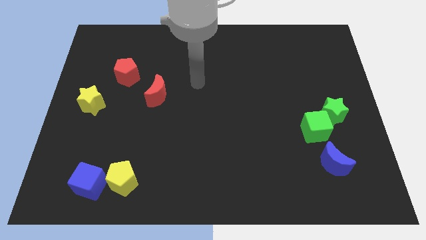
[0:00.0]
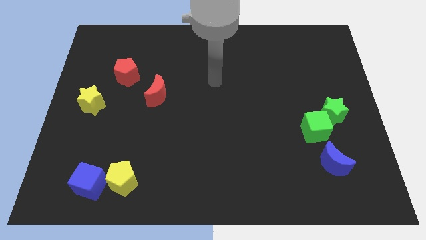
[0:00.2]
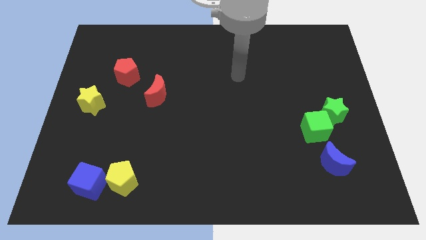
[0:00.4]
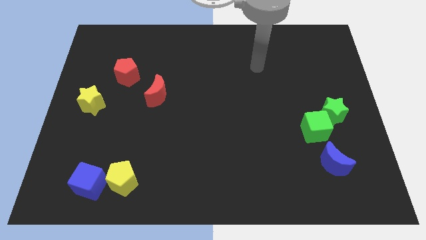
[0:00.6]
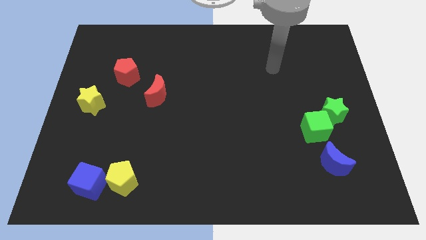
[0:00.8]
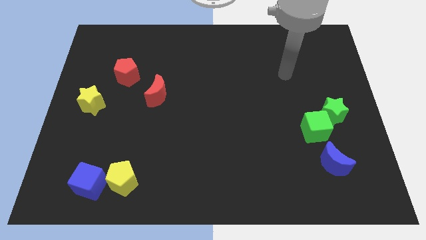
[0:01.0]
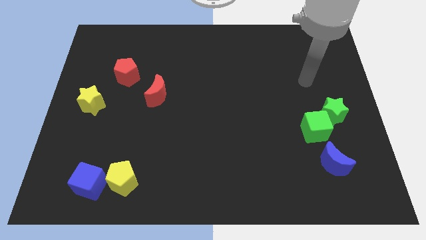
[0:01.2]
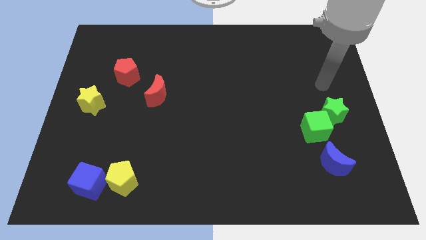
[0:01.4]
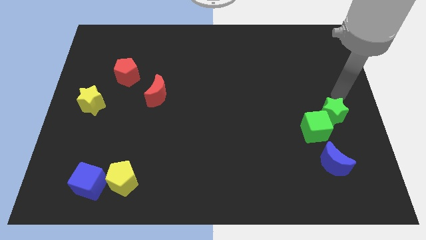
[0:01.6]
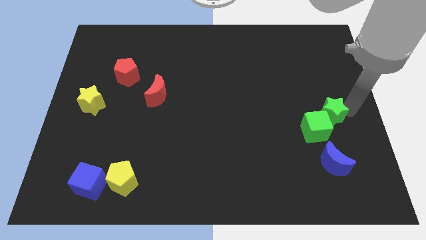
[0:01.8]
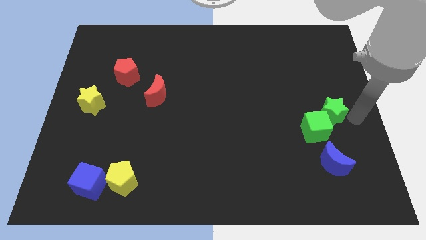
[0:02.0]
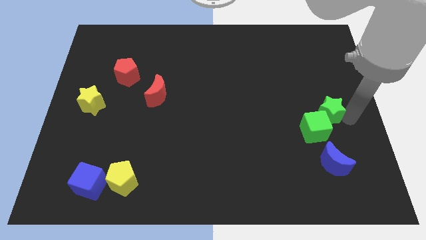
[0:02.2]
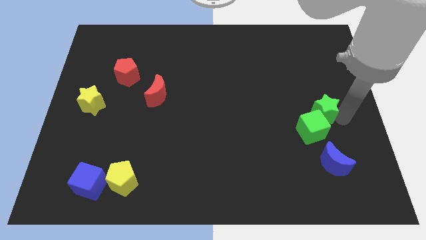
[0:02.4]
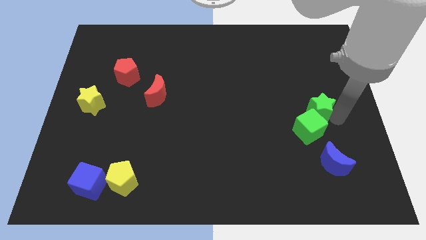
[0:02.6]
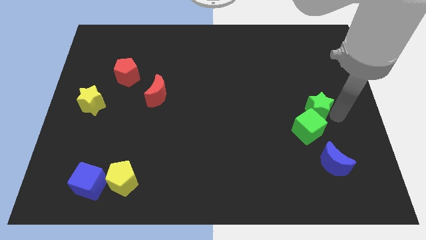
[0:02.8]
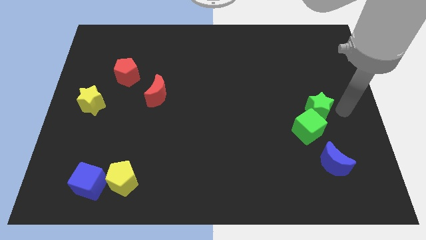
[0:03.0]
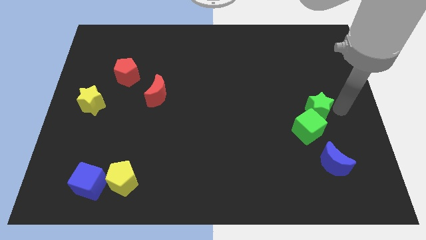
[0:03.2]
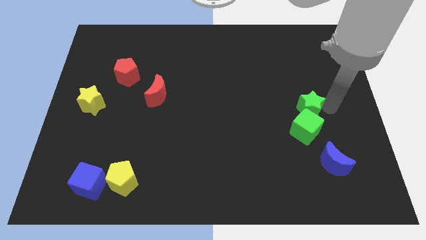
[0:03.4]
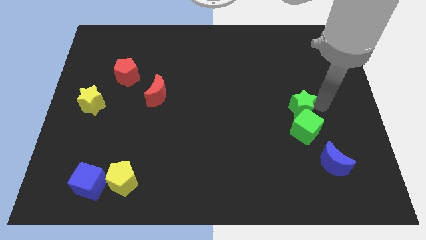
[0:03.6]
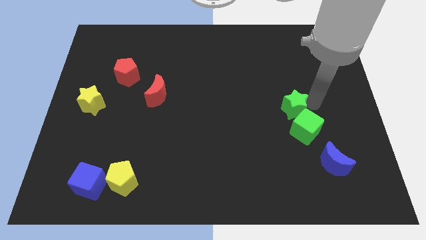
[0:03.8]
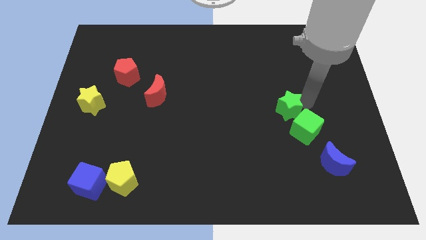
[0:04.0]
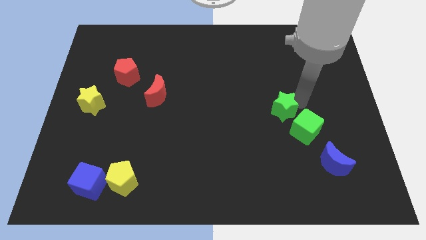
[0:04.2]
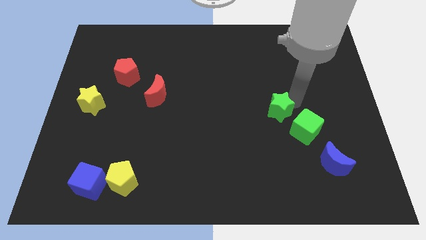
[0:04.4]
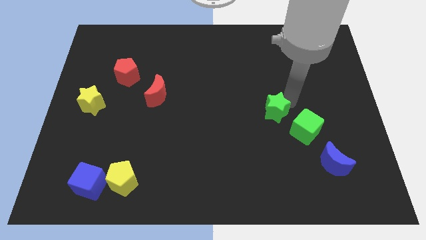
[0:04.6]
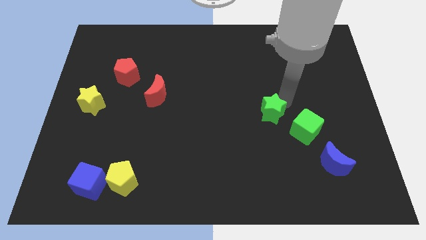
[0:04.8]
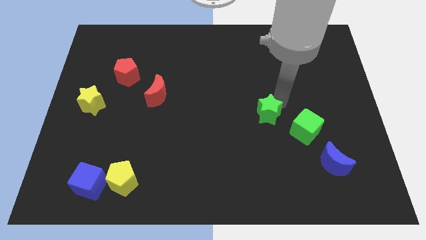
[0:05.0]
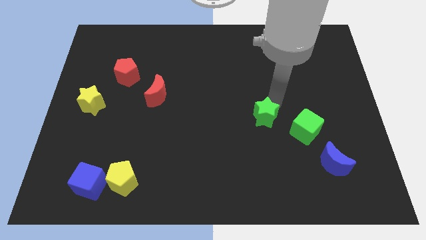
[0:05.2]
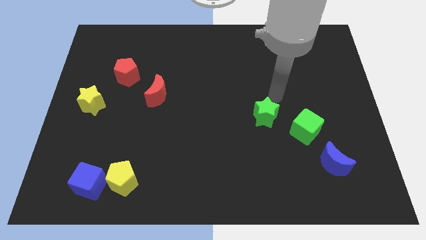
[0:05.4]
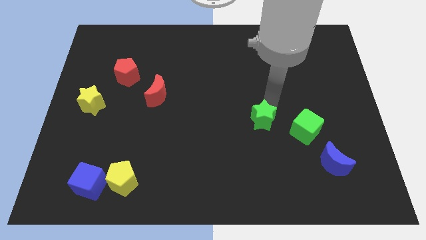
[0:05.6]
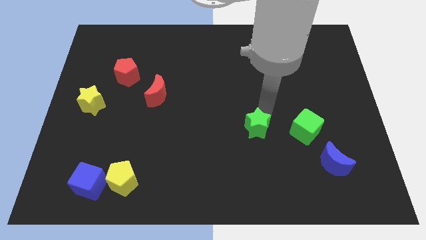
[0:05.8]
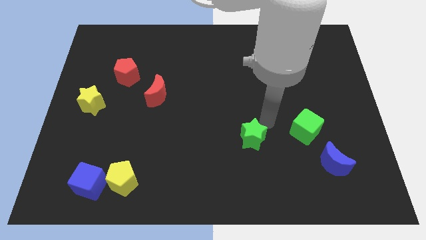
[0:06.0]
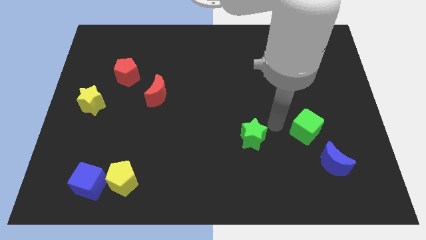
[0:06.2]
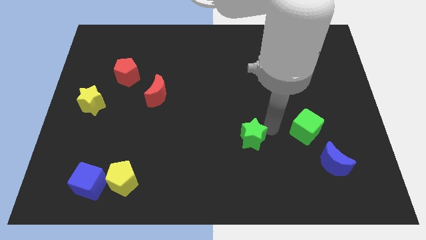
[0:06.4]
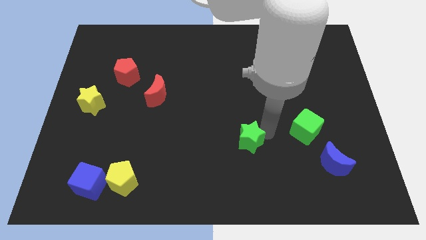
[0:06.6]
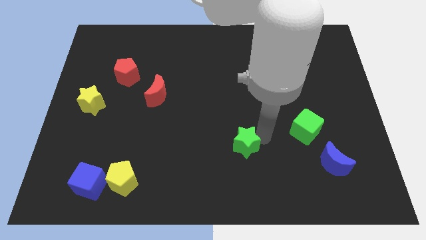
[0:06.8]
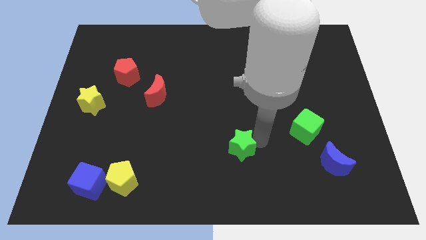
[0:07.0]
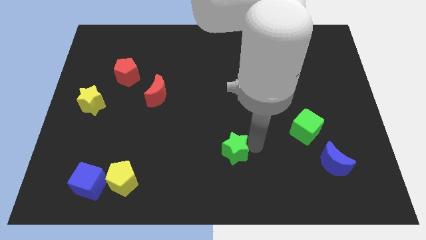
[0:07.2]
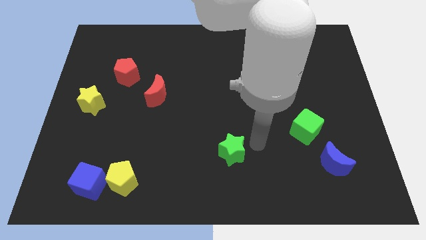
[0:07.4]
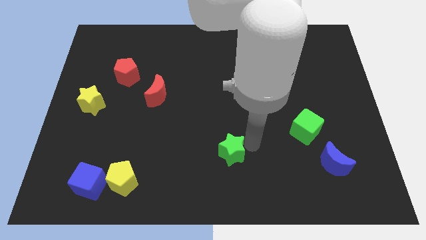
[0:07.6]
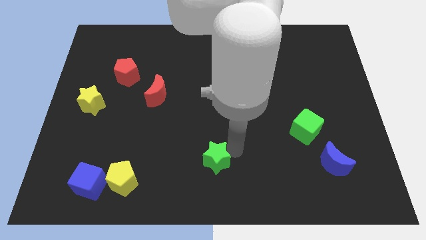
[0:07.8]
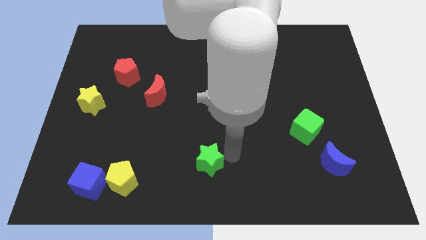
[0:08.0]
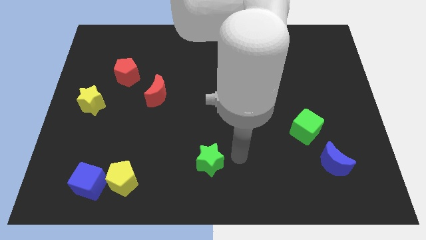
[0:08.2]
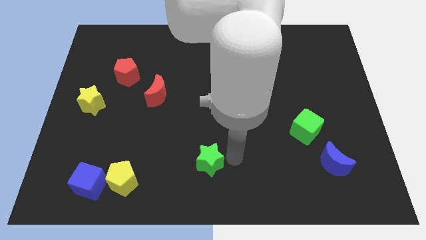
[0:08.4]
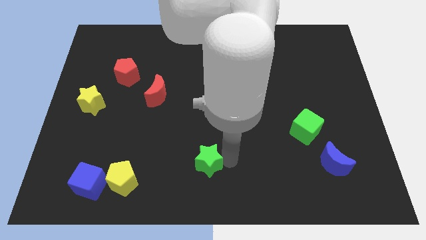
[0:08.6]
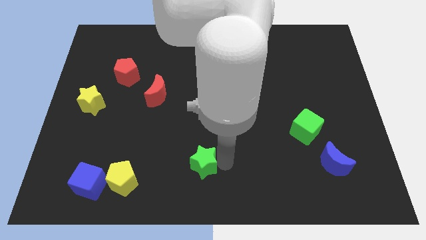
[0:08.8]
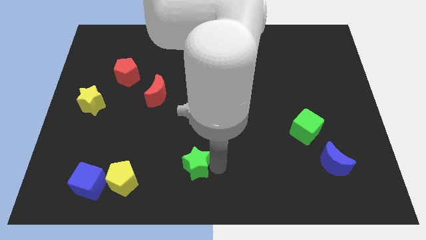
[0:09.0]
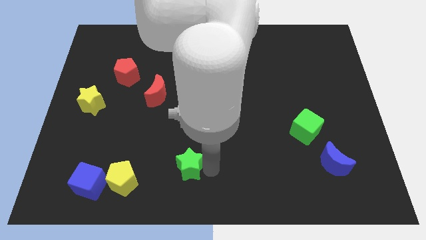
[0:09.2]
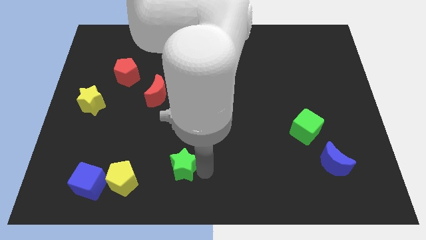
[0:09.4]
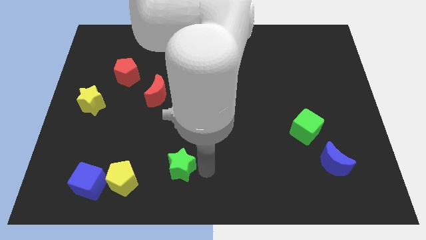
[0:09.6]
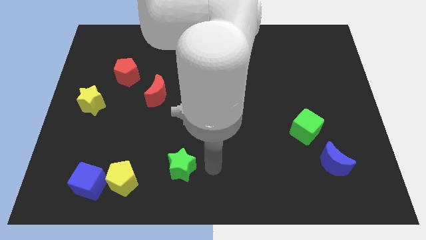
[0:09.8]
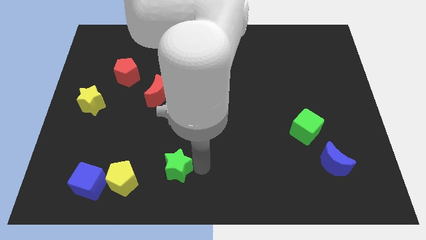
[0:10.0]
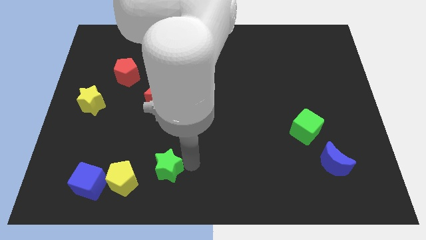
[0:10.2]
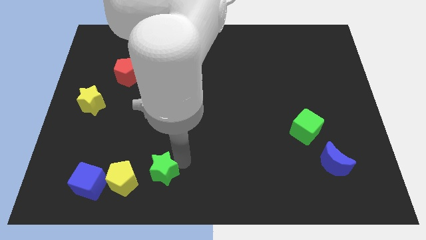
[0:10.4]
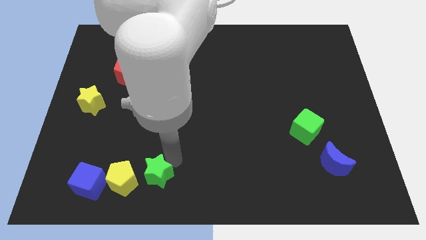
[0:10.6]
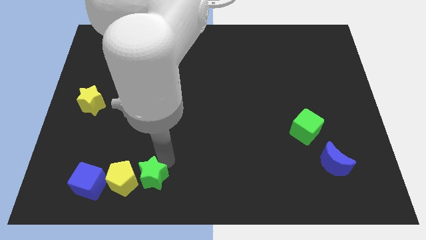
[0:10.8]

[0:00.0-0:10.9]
push the green star close to the yellow pentagon

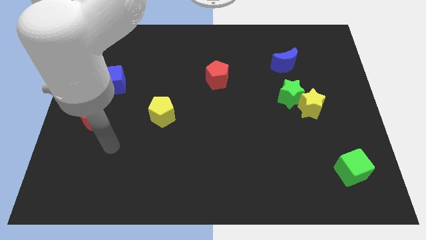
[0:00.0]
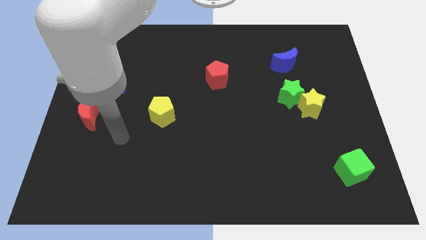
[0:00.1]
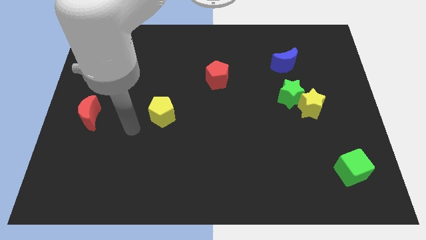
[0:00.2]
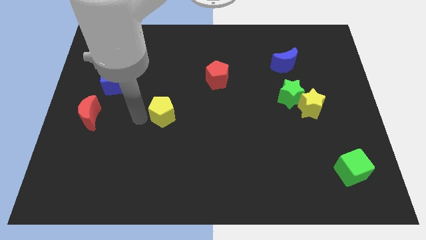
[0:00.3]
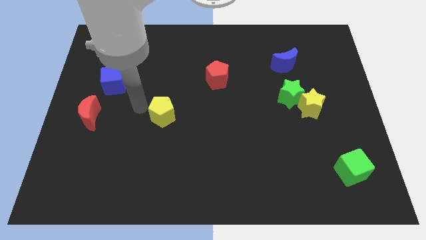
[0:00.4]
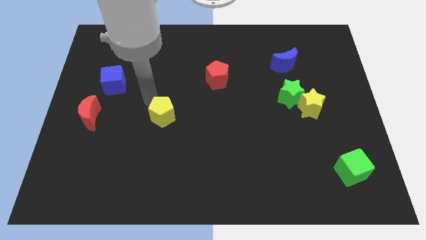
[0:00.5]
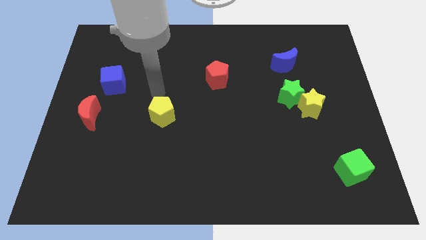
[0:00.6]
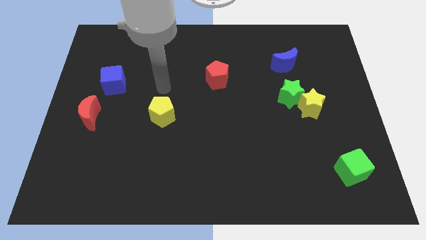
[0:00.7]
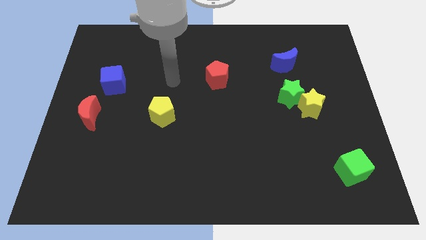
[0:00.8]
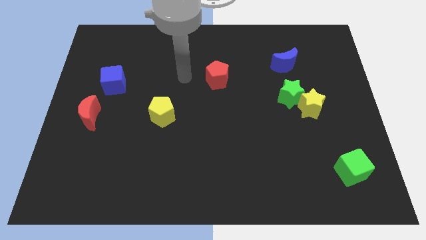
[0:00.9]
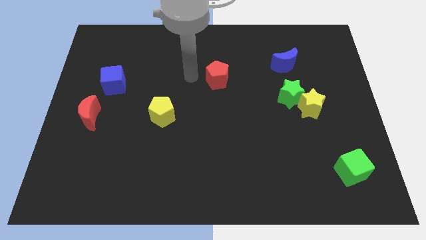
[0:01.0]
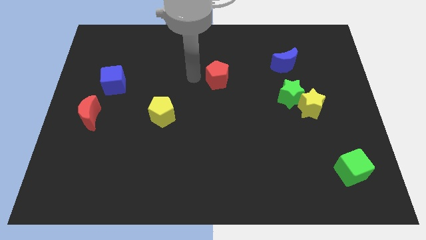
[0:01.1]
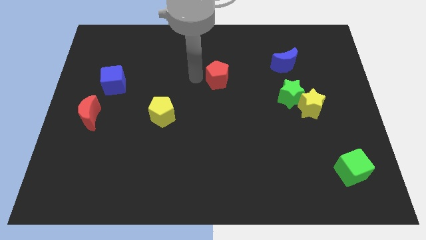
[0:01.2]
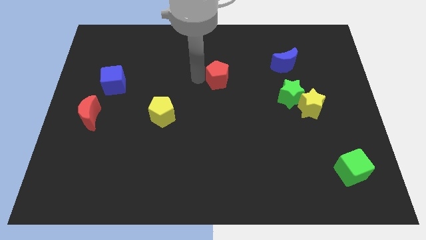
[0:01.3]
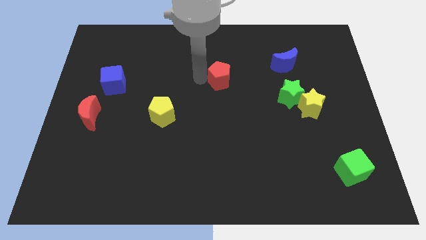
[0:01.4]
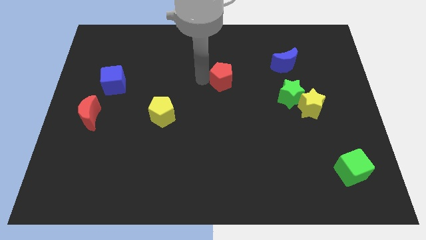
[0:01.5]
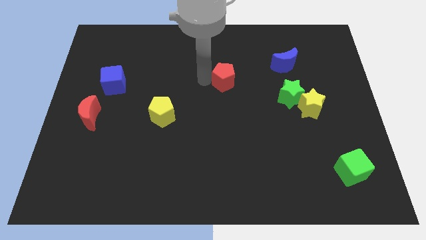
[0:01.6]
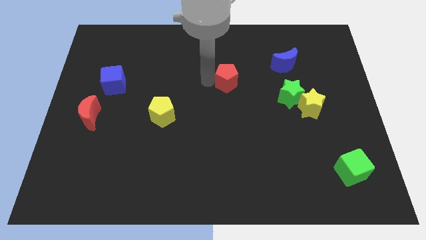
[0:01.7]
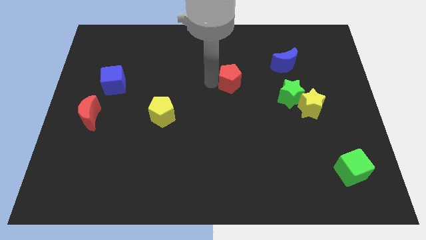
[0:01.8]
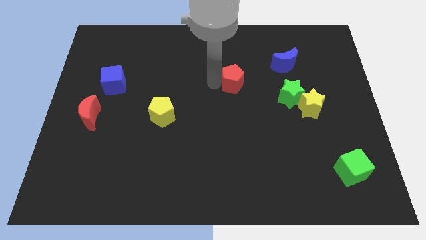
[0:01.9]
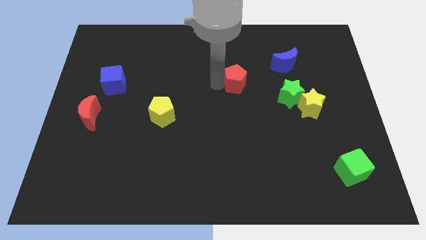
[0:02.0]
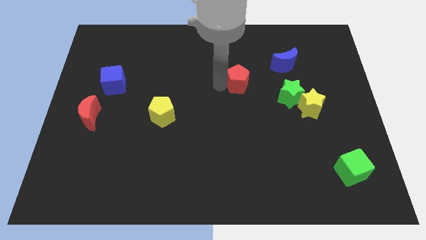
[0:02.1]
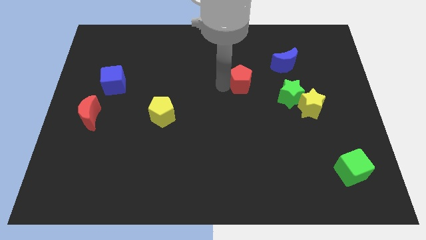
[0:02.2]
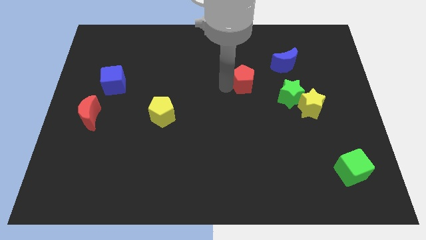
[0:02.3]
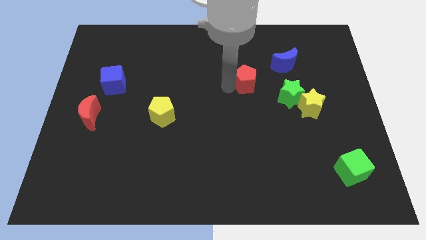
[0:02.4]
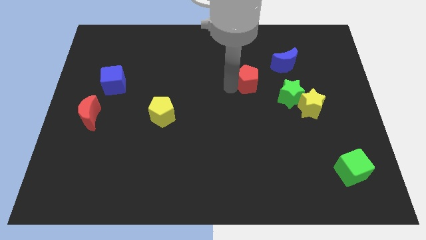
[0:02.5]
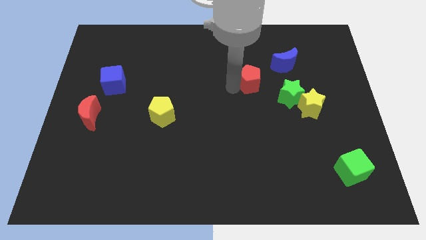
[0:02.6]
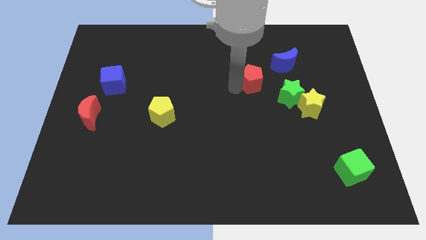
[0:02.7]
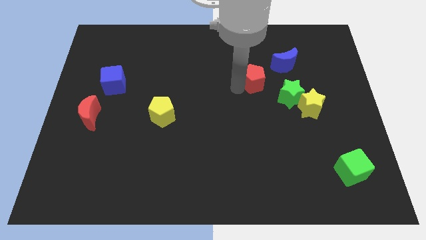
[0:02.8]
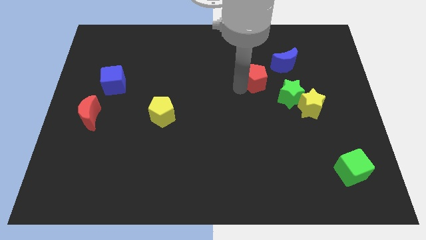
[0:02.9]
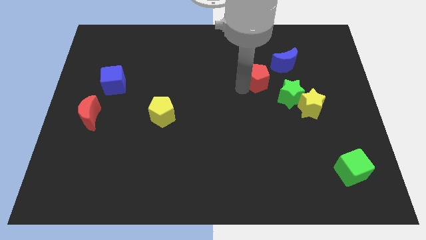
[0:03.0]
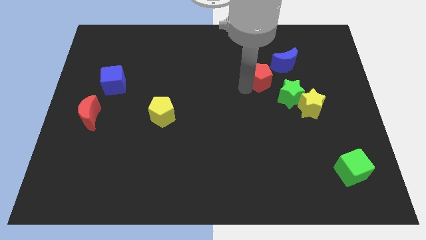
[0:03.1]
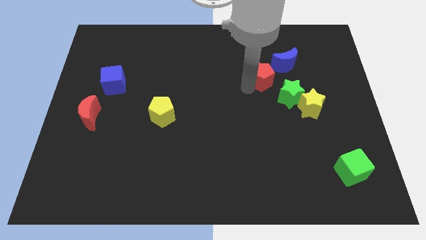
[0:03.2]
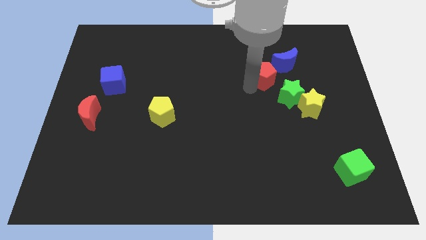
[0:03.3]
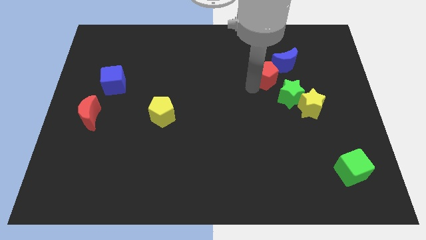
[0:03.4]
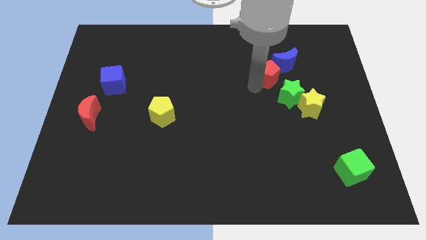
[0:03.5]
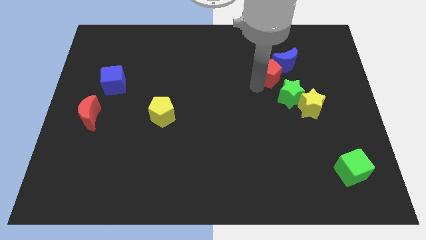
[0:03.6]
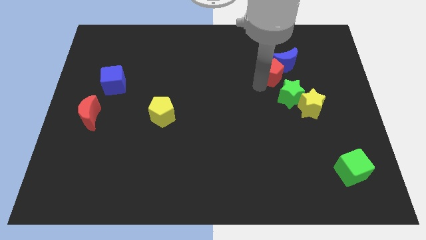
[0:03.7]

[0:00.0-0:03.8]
slide the red pentagon towards the blue moon
